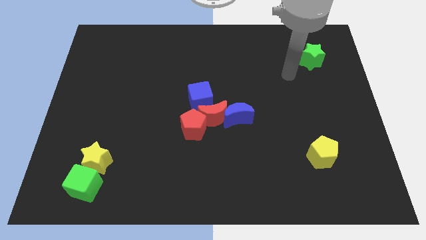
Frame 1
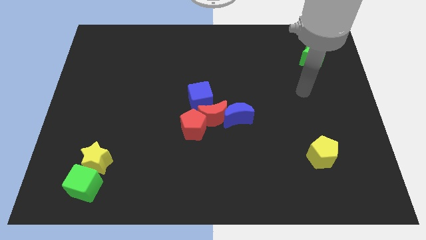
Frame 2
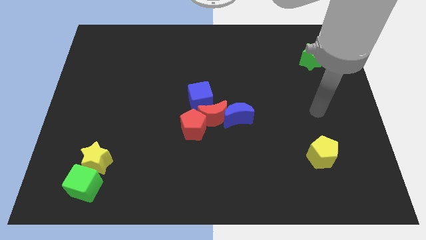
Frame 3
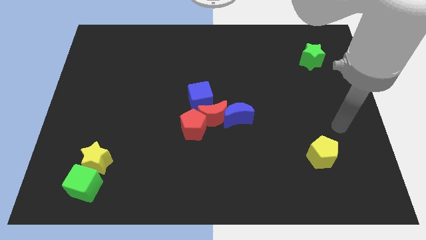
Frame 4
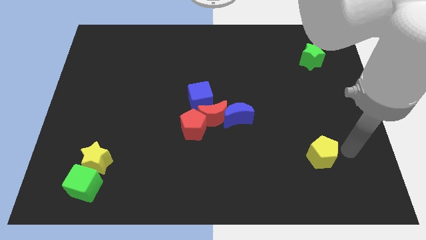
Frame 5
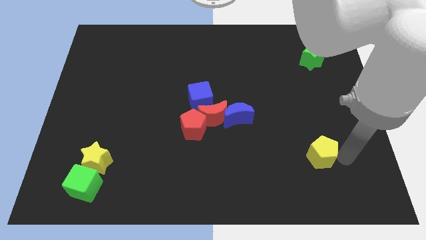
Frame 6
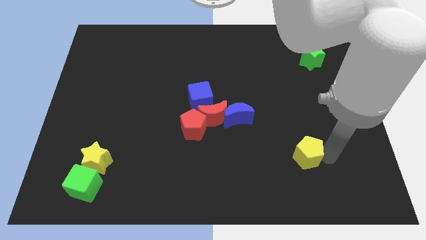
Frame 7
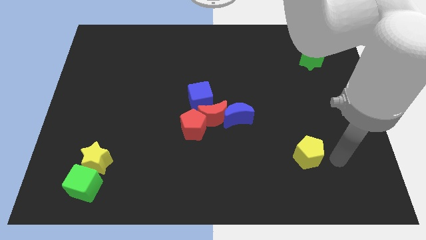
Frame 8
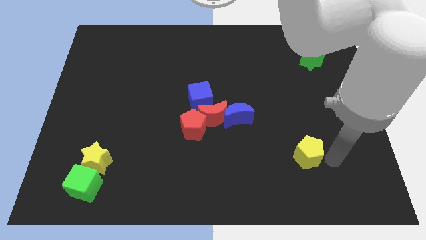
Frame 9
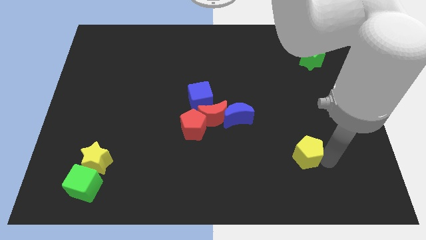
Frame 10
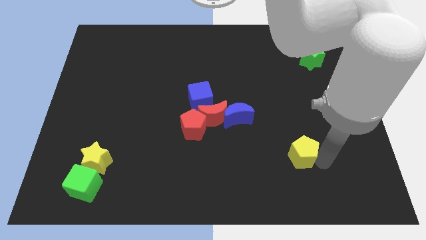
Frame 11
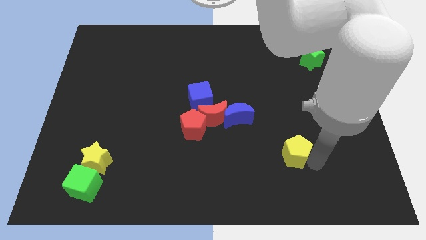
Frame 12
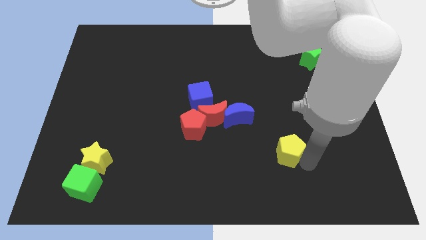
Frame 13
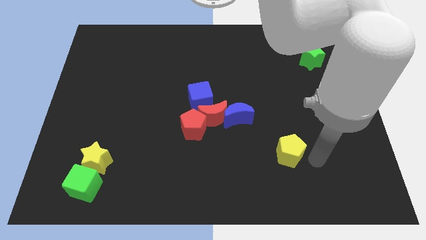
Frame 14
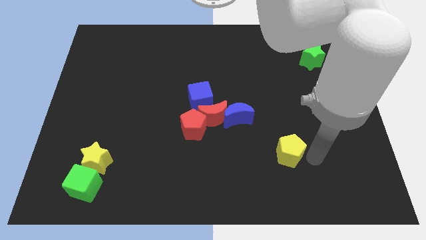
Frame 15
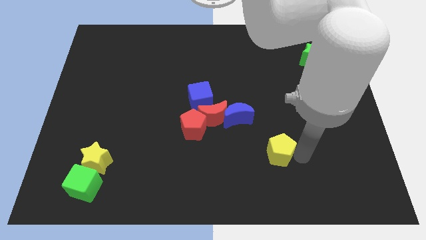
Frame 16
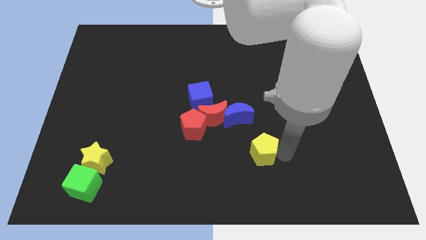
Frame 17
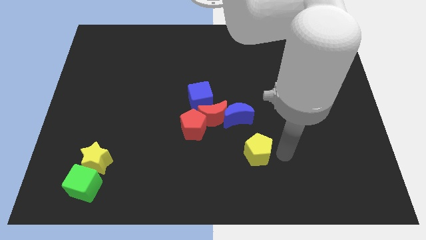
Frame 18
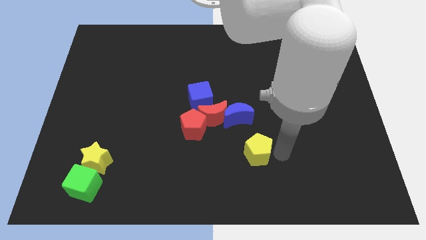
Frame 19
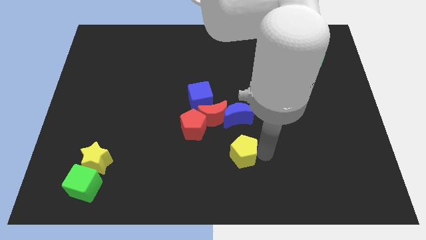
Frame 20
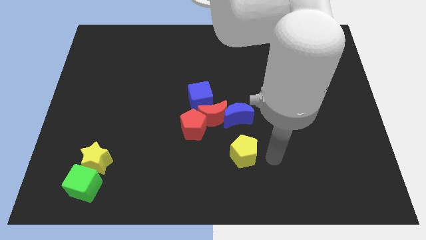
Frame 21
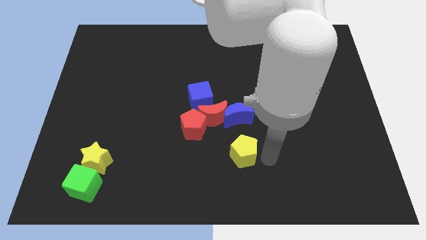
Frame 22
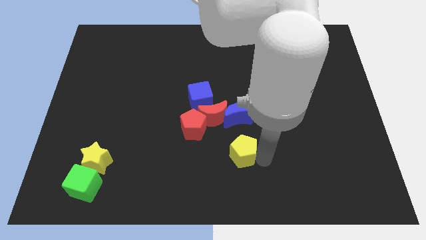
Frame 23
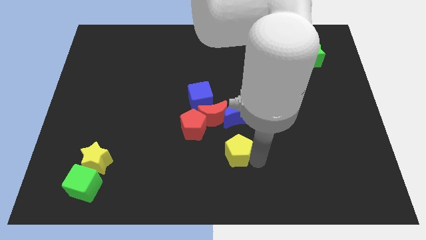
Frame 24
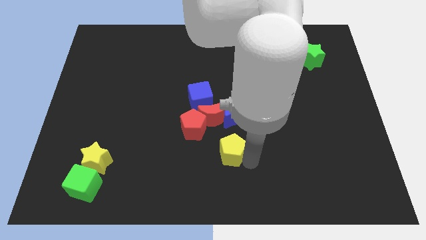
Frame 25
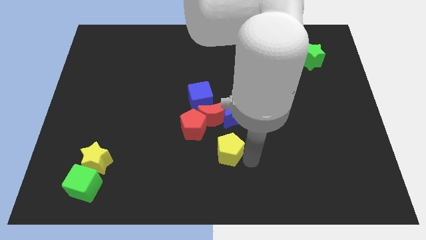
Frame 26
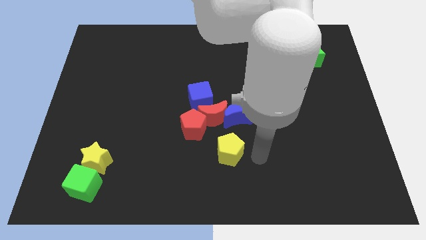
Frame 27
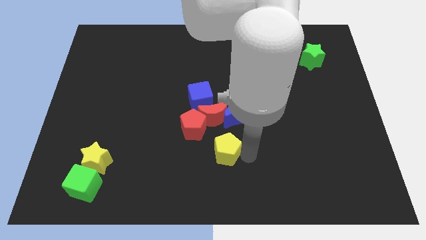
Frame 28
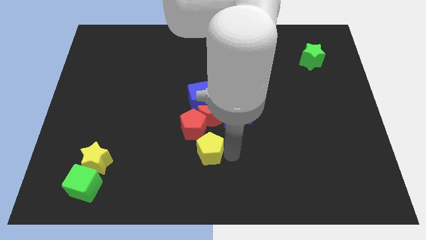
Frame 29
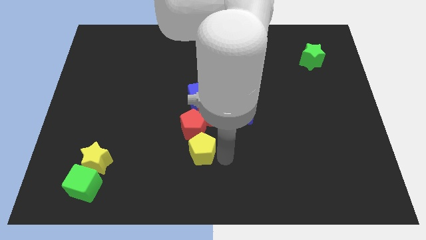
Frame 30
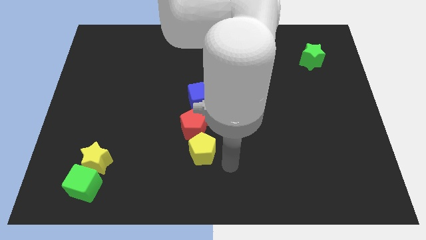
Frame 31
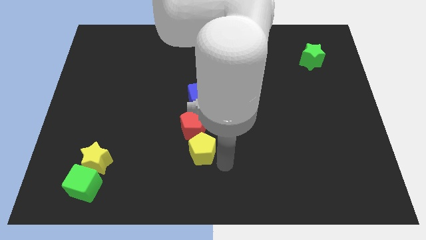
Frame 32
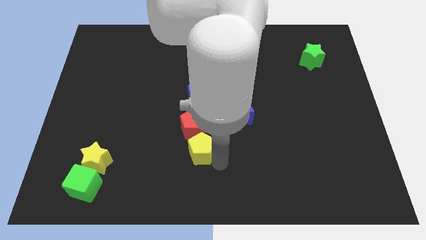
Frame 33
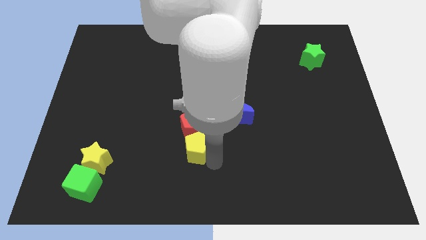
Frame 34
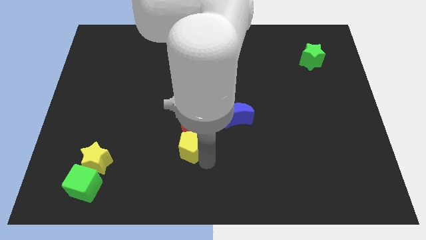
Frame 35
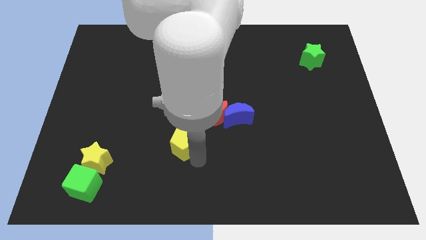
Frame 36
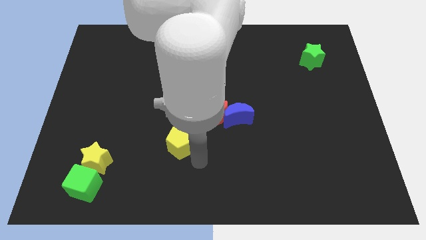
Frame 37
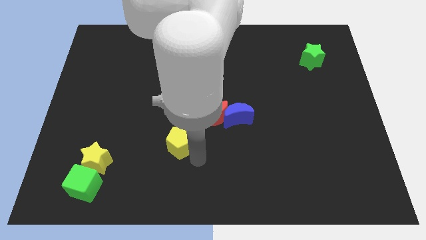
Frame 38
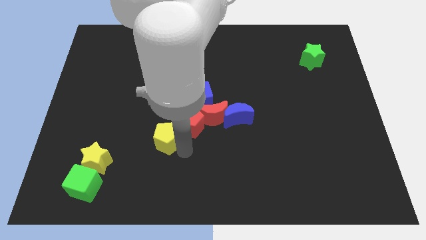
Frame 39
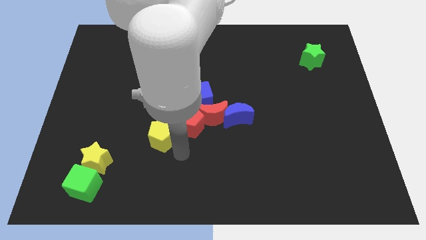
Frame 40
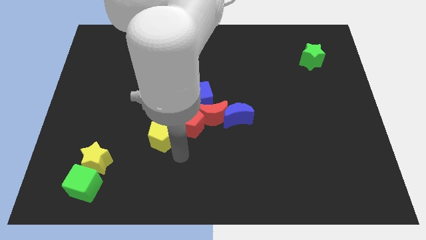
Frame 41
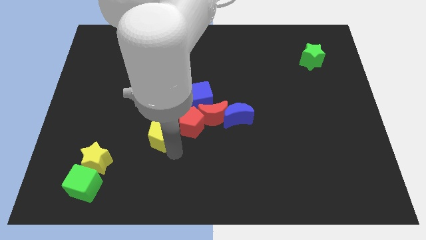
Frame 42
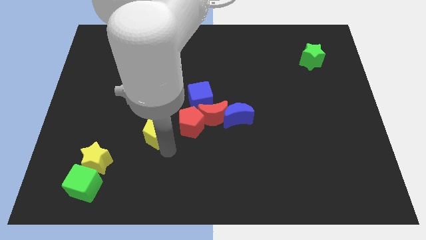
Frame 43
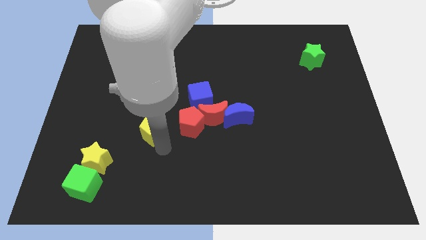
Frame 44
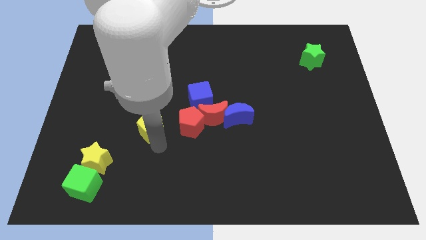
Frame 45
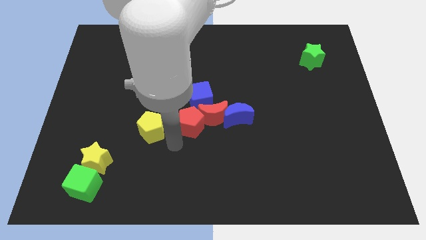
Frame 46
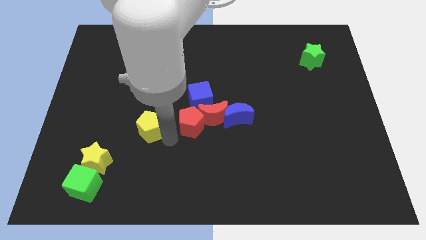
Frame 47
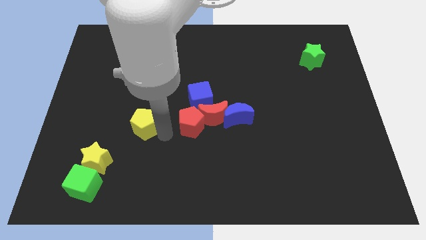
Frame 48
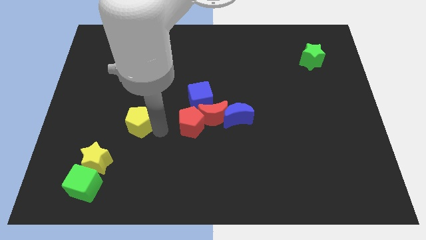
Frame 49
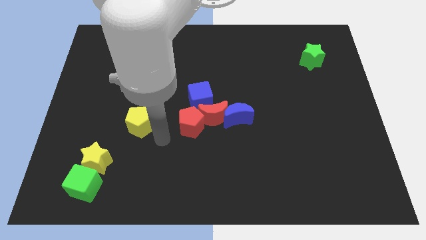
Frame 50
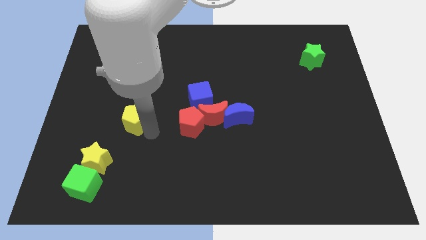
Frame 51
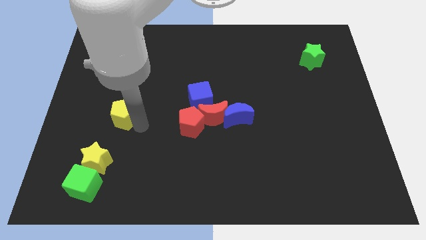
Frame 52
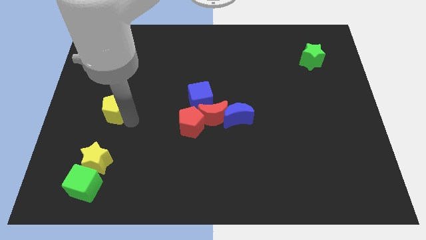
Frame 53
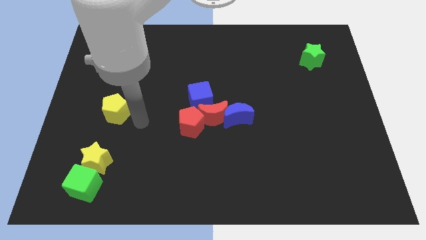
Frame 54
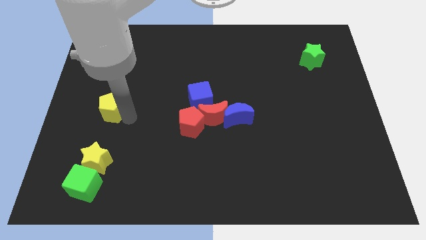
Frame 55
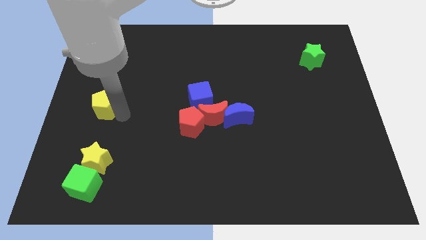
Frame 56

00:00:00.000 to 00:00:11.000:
slide the yellow pentagon to the center left
